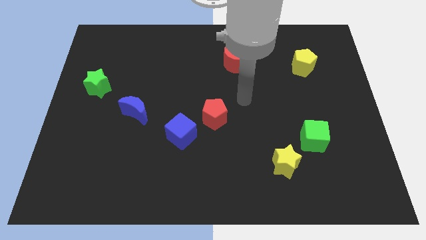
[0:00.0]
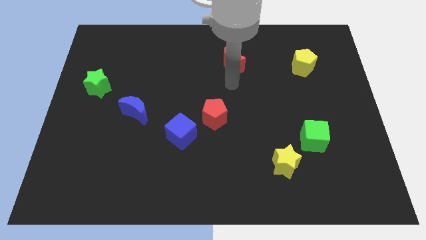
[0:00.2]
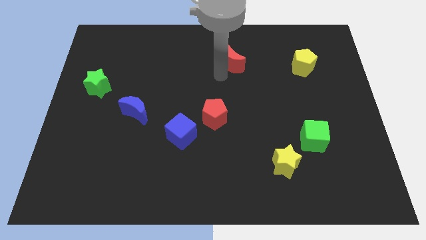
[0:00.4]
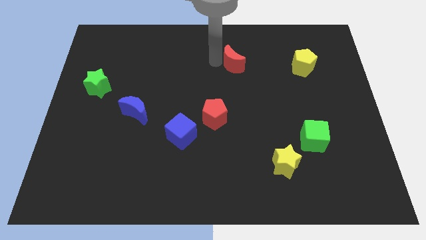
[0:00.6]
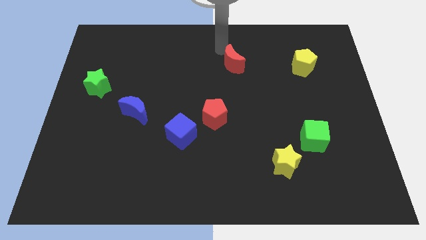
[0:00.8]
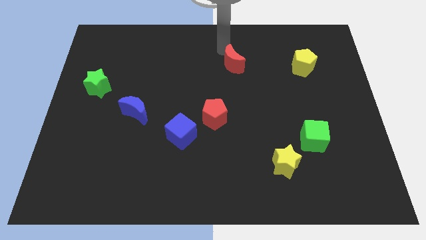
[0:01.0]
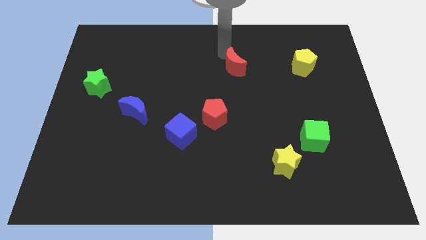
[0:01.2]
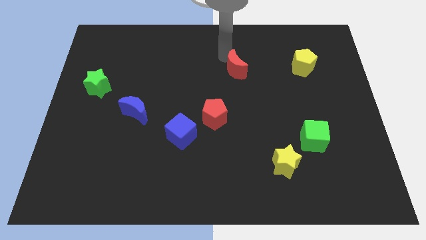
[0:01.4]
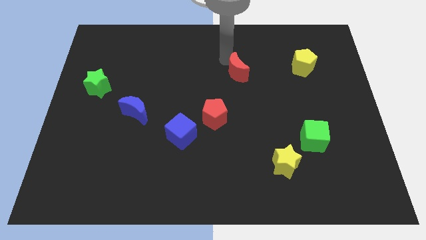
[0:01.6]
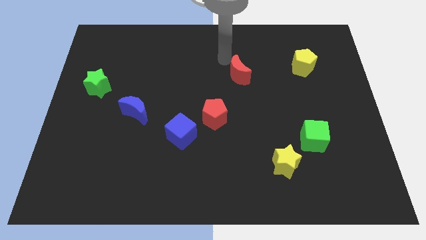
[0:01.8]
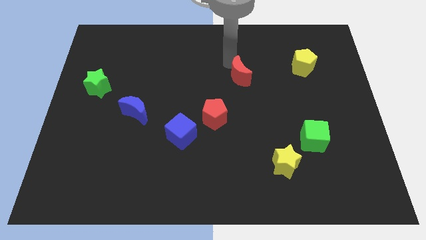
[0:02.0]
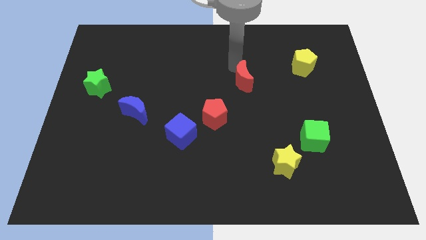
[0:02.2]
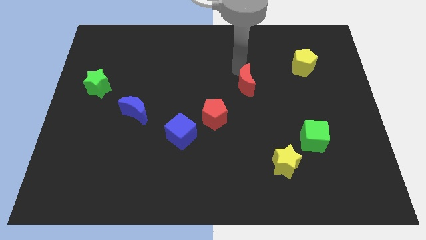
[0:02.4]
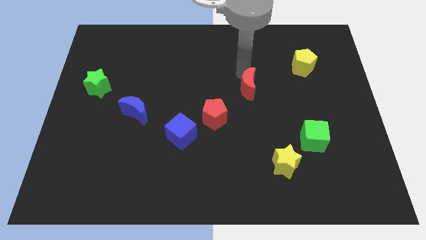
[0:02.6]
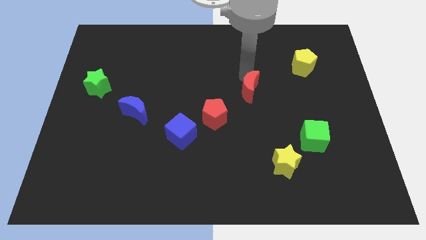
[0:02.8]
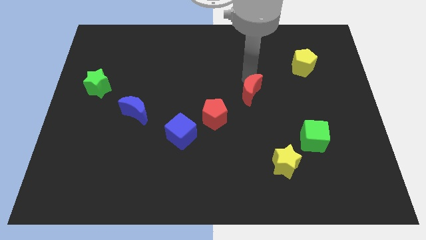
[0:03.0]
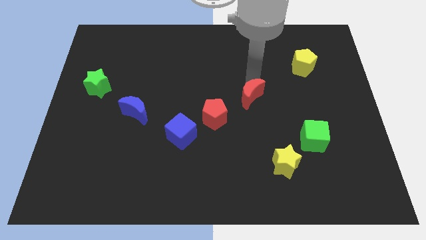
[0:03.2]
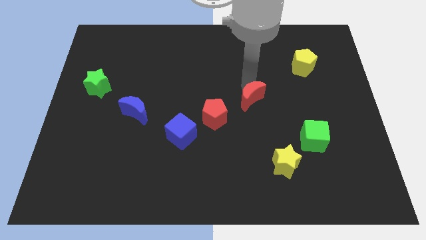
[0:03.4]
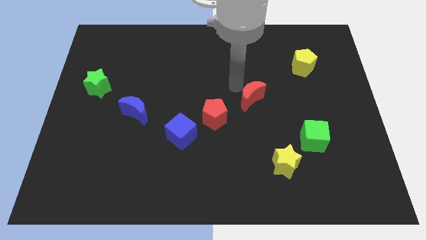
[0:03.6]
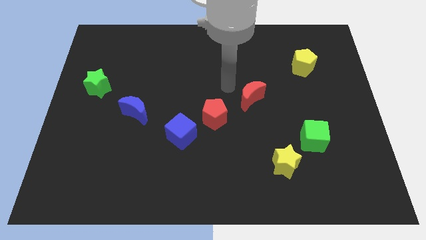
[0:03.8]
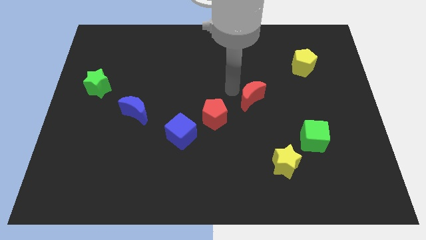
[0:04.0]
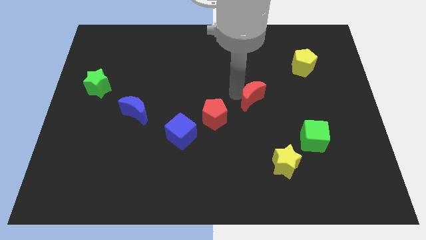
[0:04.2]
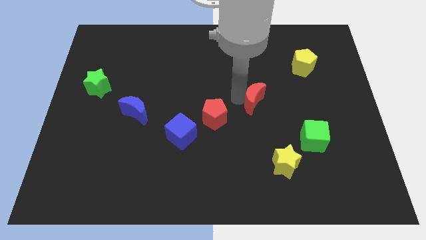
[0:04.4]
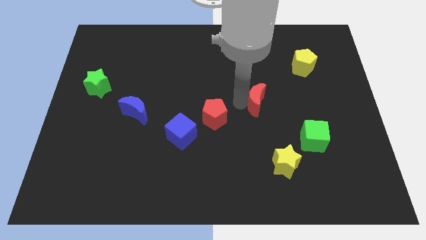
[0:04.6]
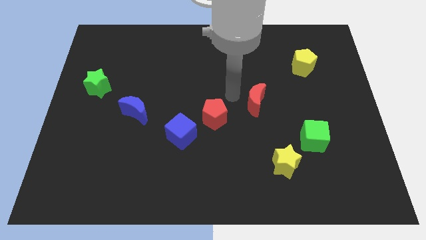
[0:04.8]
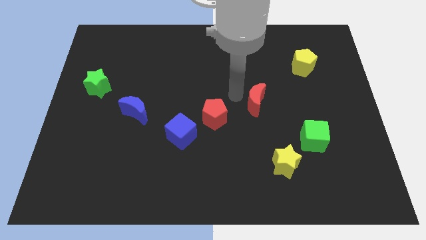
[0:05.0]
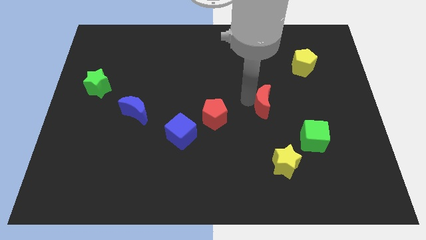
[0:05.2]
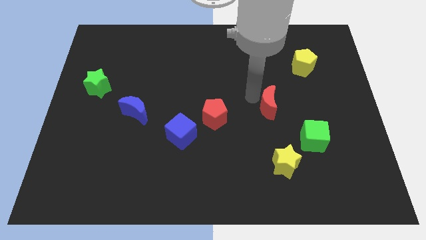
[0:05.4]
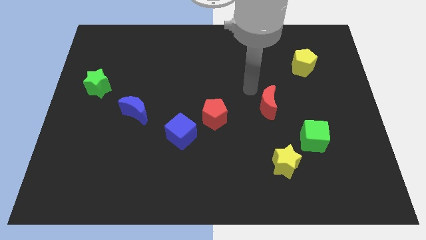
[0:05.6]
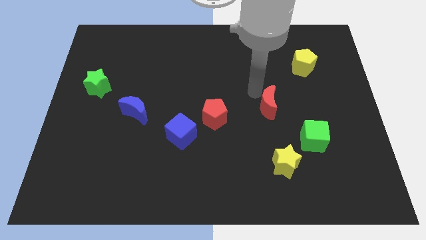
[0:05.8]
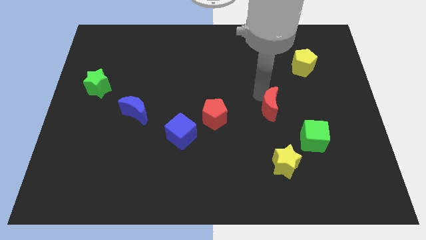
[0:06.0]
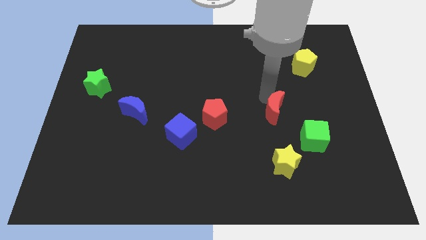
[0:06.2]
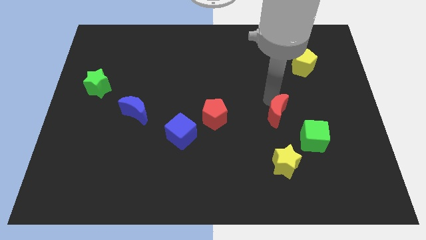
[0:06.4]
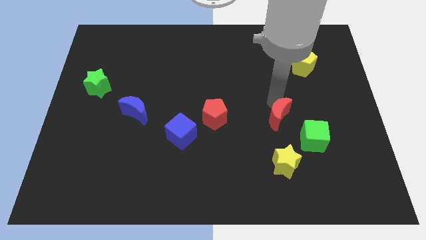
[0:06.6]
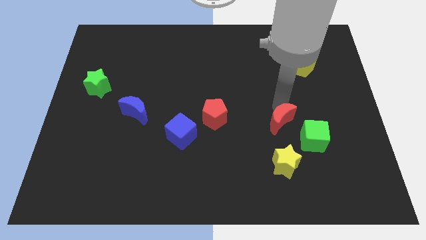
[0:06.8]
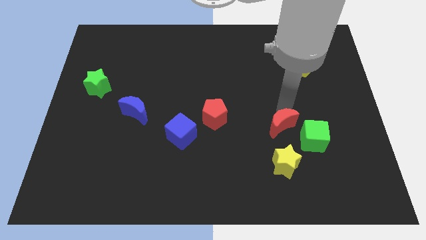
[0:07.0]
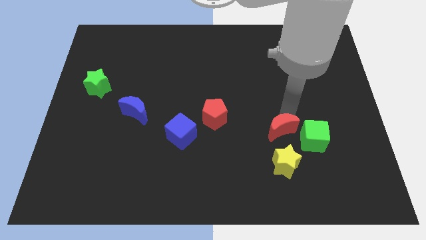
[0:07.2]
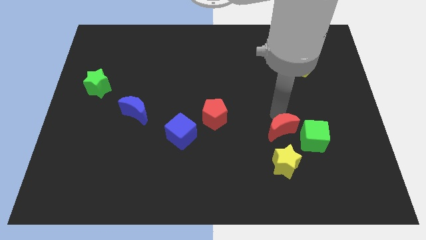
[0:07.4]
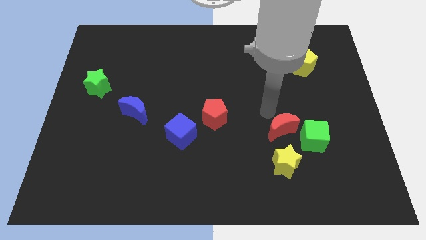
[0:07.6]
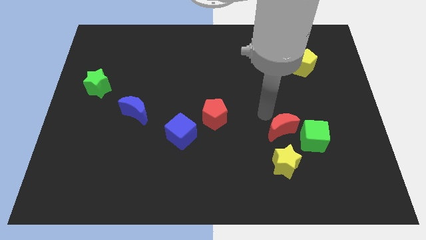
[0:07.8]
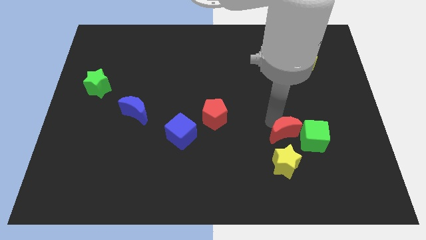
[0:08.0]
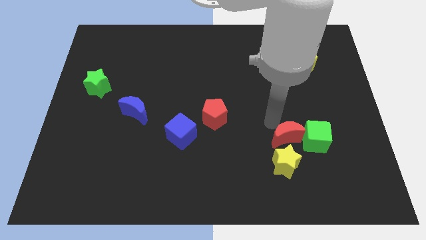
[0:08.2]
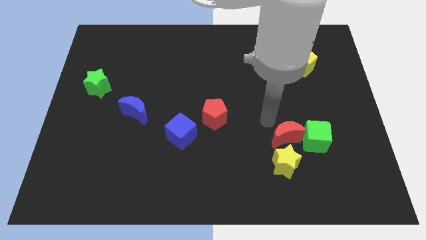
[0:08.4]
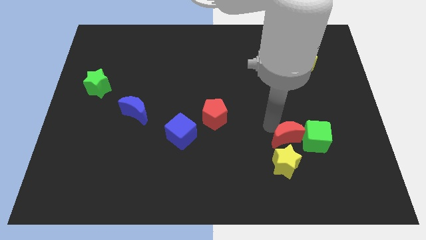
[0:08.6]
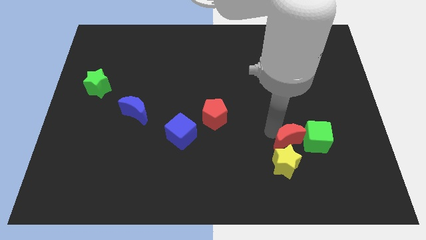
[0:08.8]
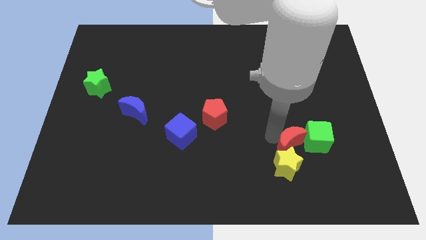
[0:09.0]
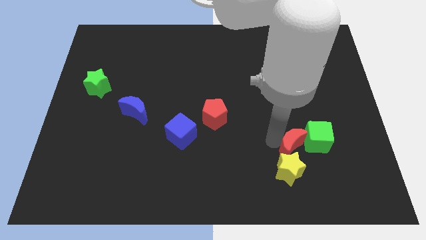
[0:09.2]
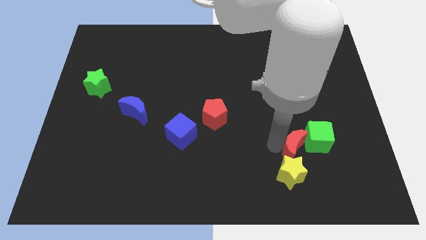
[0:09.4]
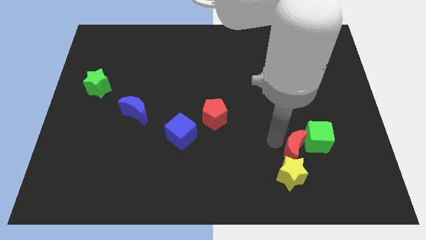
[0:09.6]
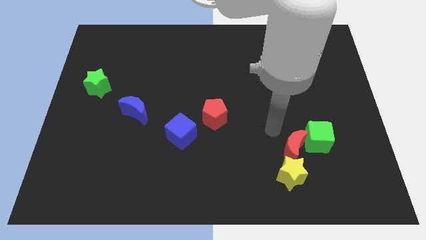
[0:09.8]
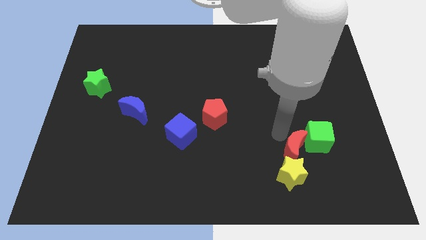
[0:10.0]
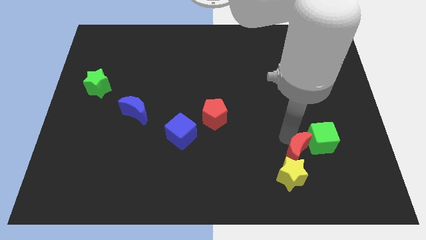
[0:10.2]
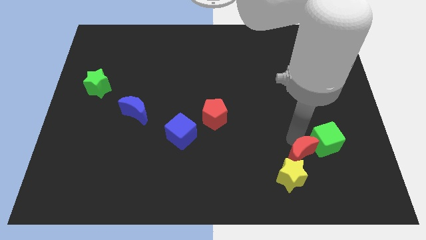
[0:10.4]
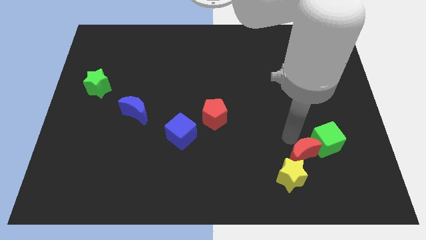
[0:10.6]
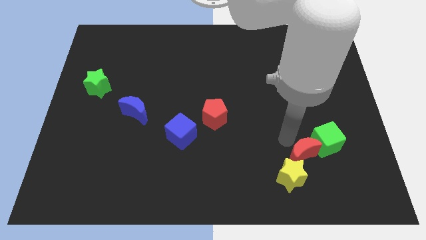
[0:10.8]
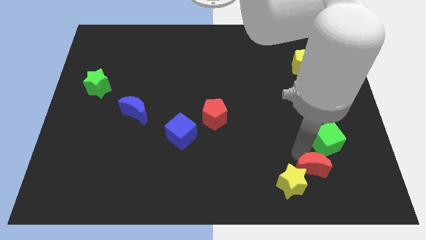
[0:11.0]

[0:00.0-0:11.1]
put the red moon to the bottom of the green cube

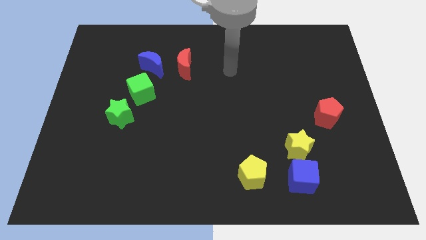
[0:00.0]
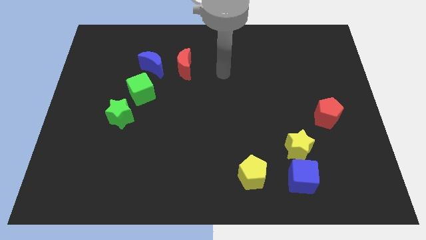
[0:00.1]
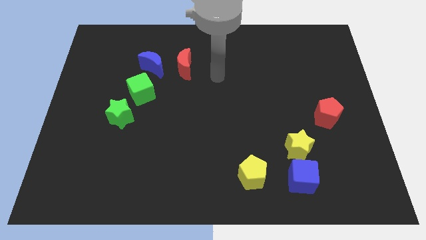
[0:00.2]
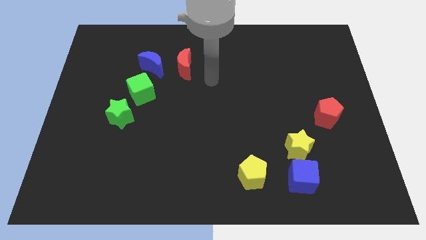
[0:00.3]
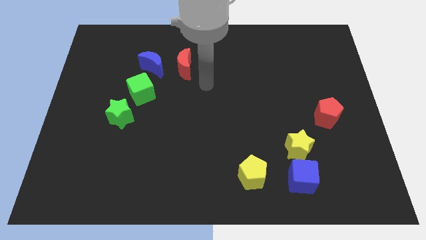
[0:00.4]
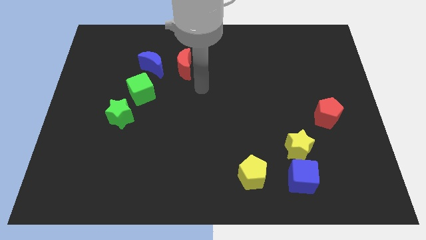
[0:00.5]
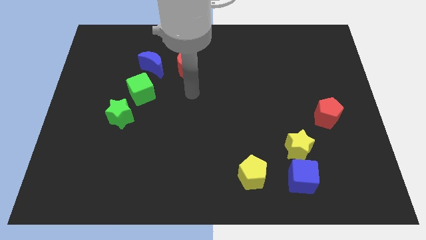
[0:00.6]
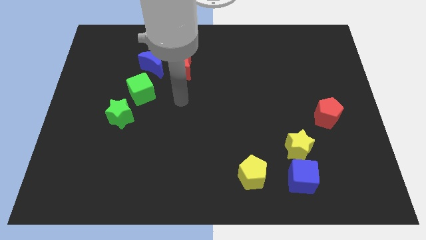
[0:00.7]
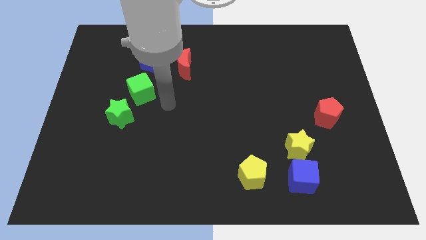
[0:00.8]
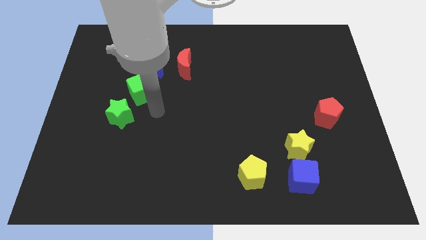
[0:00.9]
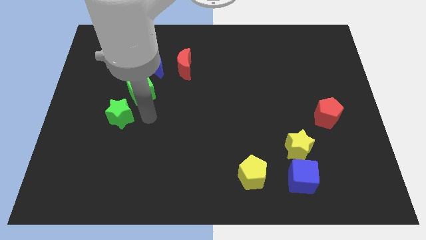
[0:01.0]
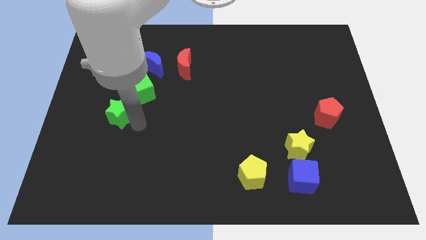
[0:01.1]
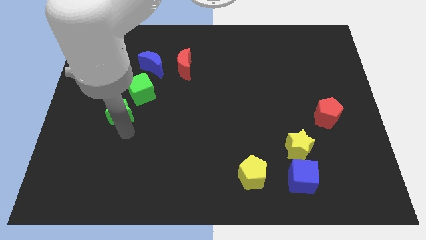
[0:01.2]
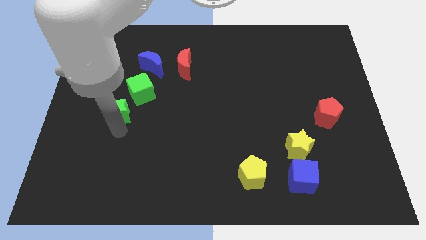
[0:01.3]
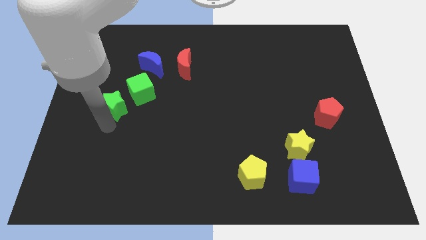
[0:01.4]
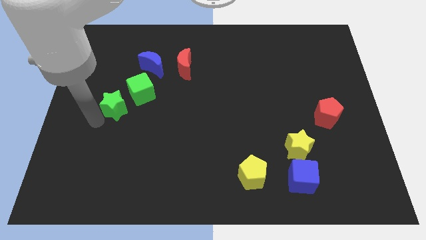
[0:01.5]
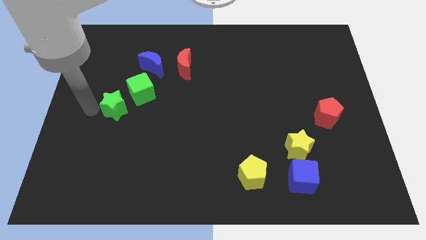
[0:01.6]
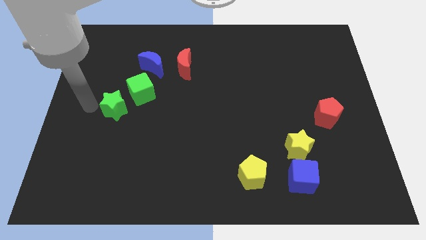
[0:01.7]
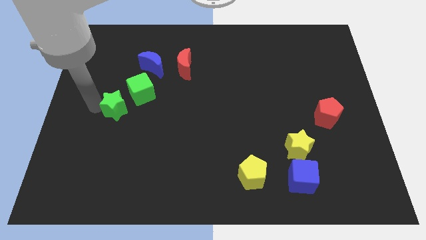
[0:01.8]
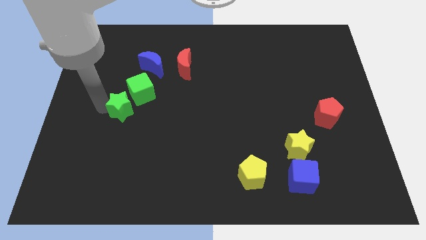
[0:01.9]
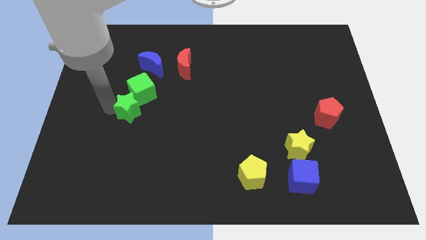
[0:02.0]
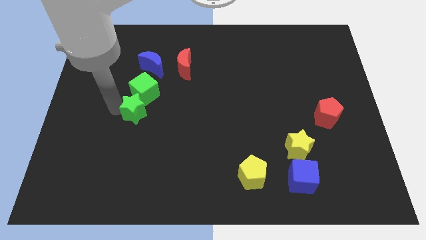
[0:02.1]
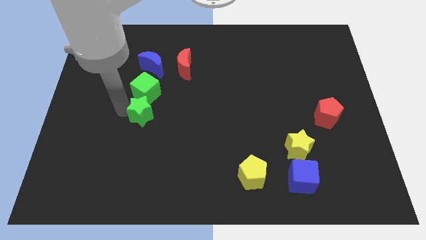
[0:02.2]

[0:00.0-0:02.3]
push the green star diagonally down and to the right of the green cube
